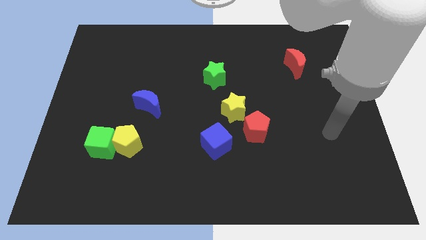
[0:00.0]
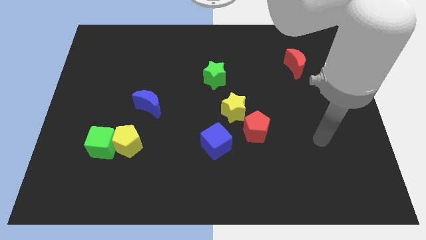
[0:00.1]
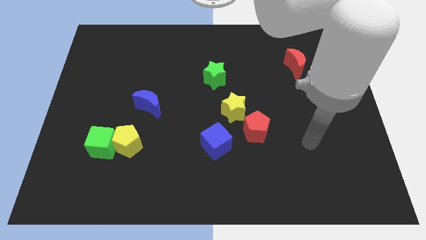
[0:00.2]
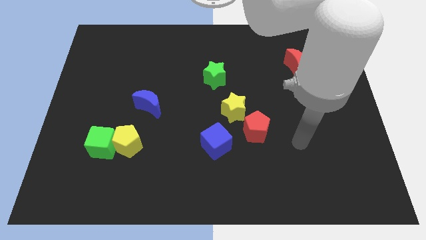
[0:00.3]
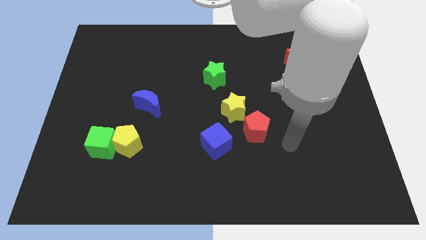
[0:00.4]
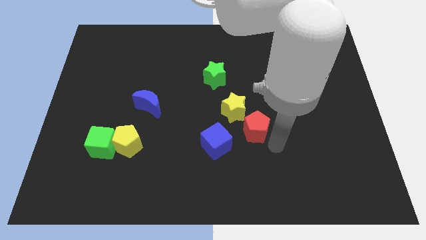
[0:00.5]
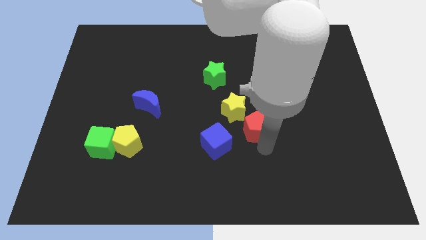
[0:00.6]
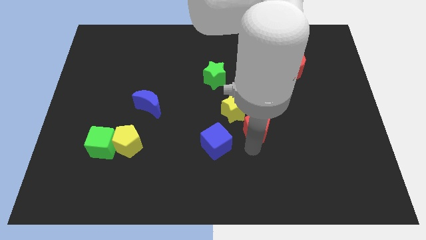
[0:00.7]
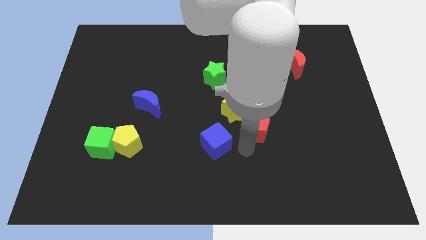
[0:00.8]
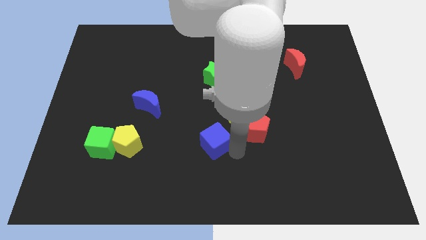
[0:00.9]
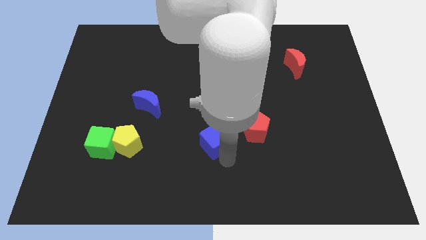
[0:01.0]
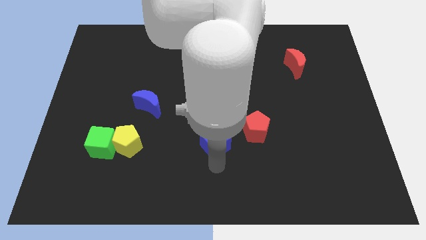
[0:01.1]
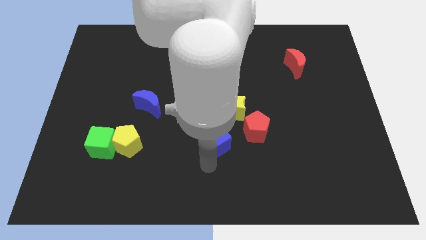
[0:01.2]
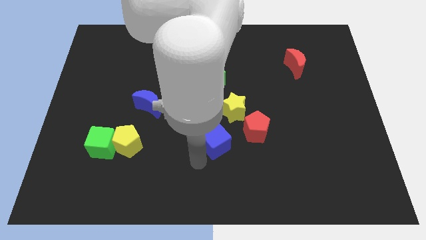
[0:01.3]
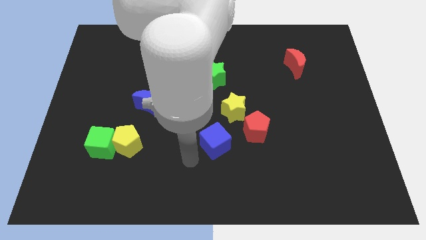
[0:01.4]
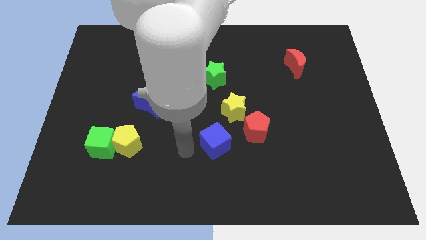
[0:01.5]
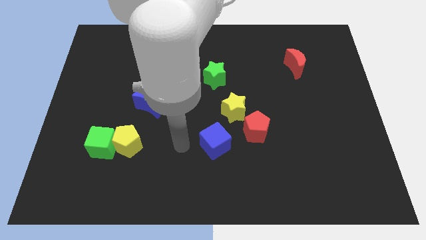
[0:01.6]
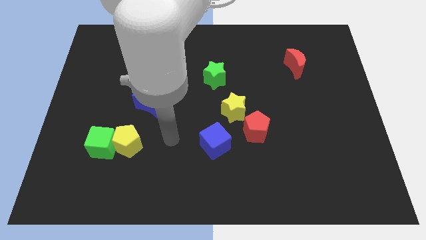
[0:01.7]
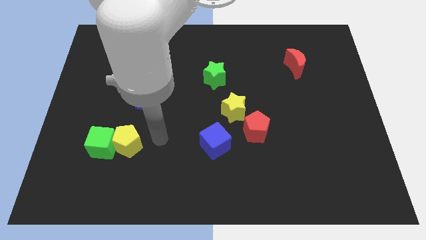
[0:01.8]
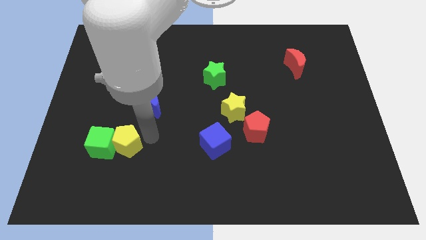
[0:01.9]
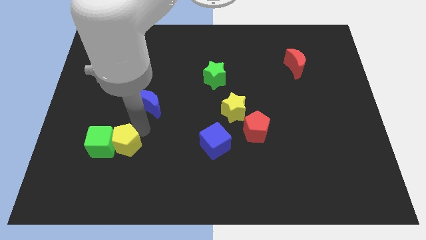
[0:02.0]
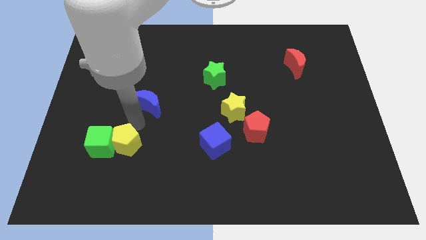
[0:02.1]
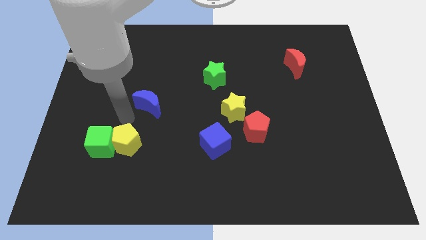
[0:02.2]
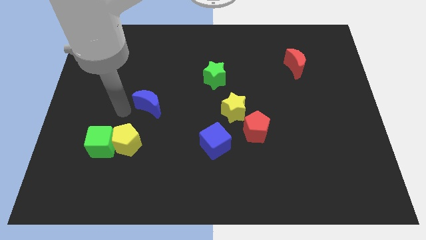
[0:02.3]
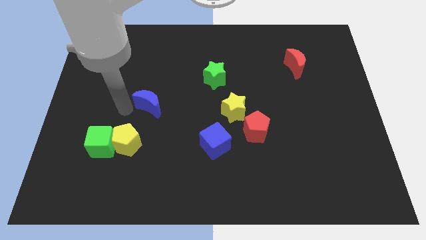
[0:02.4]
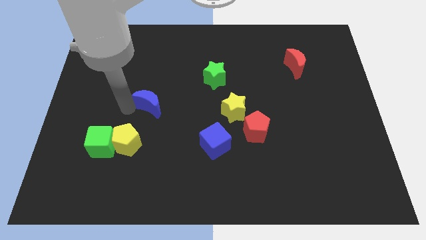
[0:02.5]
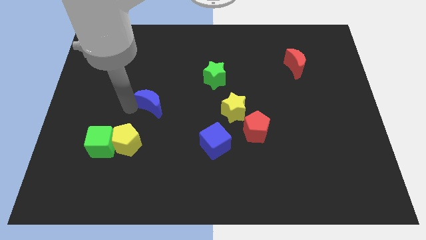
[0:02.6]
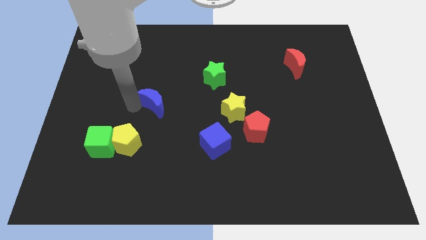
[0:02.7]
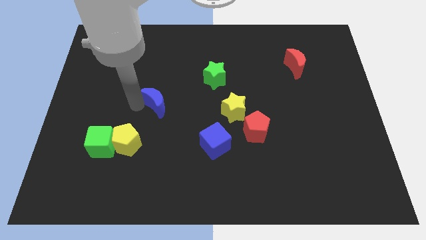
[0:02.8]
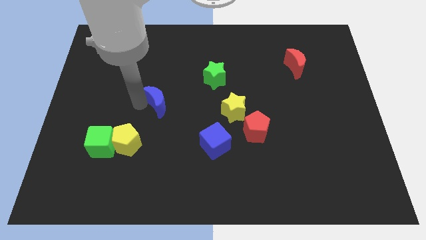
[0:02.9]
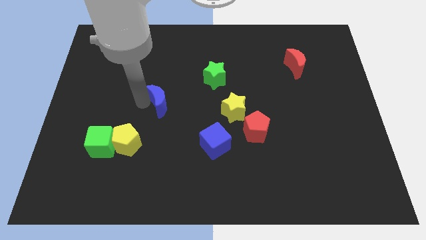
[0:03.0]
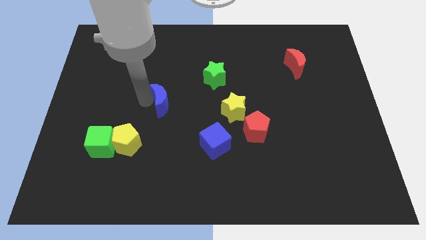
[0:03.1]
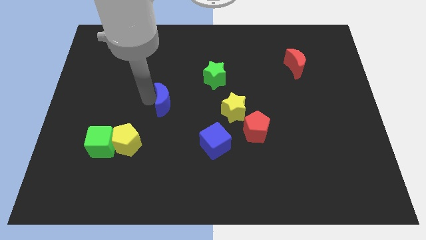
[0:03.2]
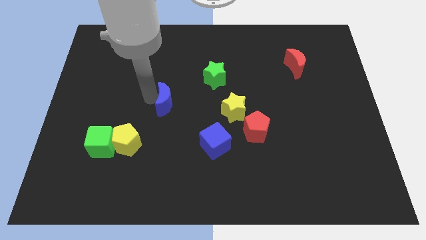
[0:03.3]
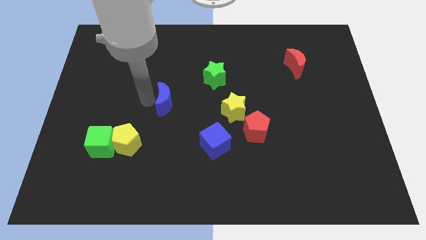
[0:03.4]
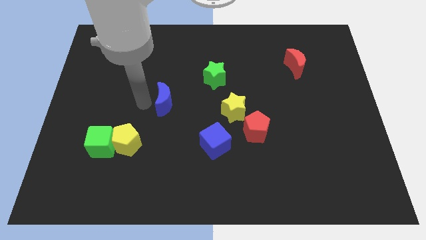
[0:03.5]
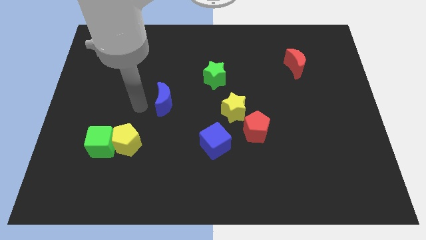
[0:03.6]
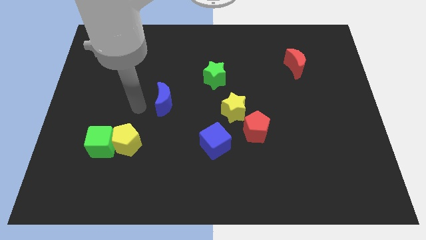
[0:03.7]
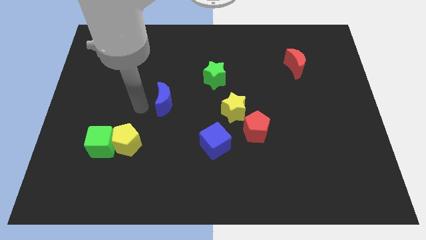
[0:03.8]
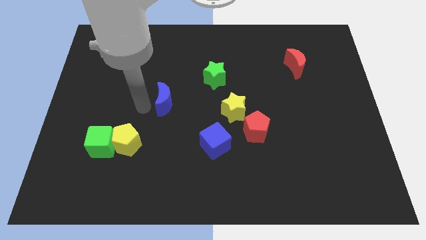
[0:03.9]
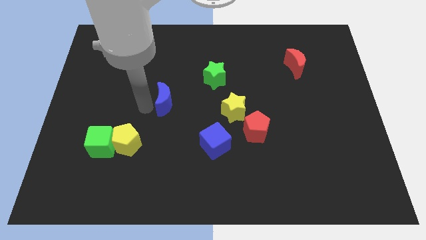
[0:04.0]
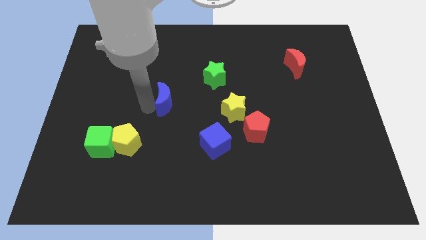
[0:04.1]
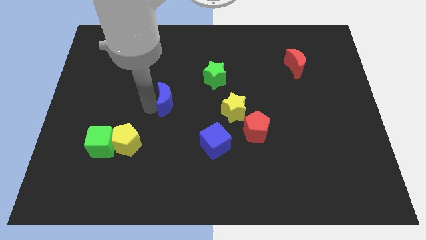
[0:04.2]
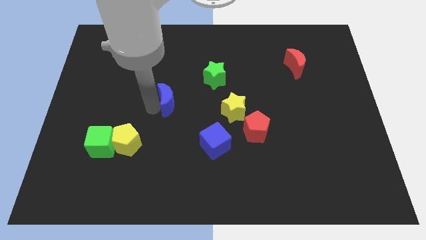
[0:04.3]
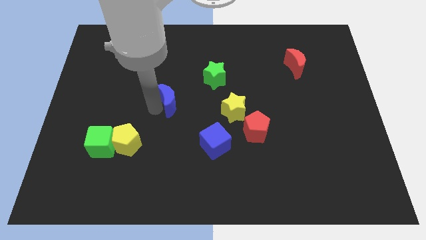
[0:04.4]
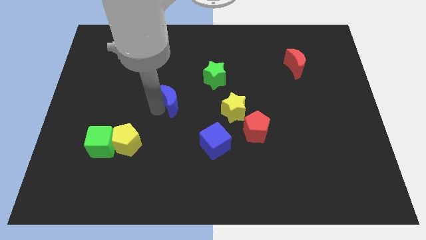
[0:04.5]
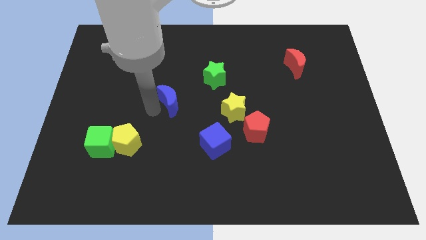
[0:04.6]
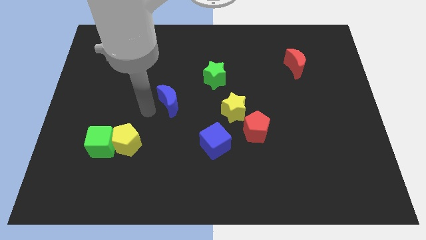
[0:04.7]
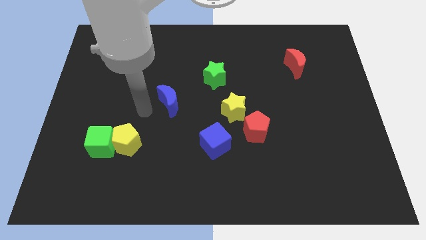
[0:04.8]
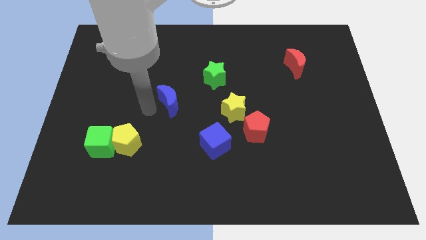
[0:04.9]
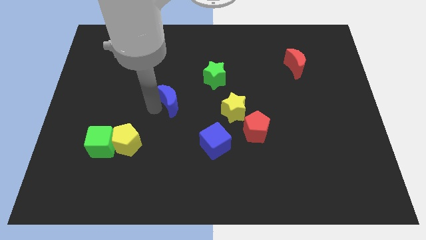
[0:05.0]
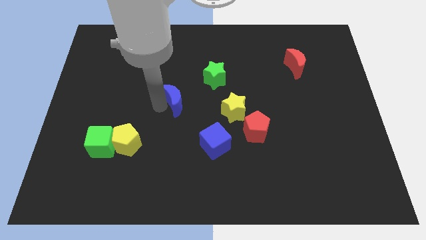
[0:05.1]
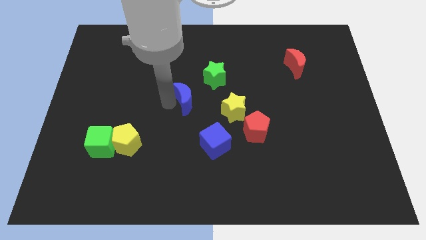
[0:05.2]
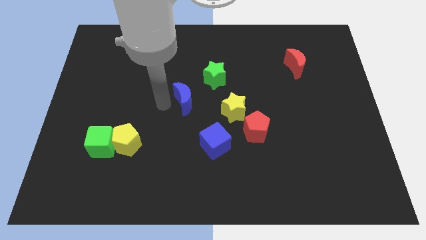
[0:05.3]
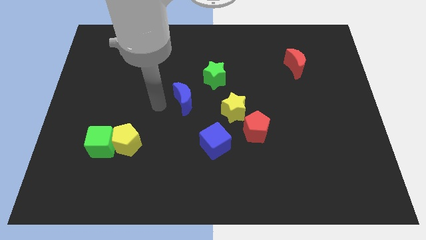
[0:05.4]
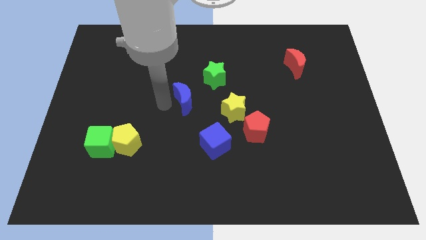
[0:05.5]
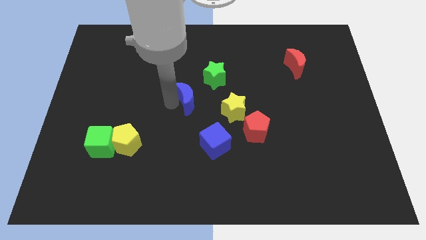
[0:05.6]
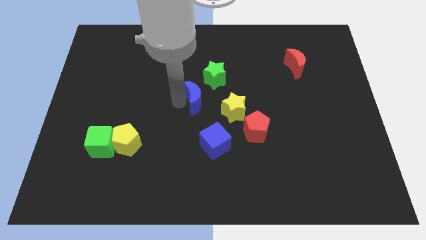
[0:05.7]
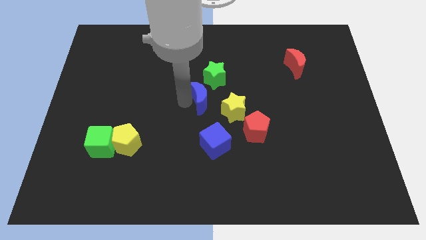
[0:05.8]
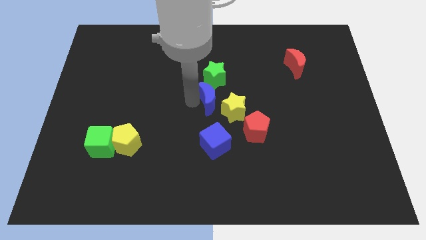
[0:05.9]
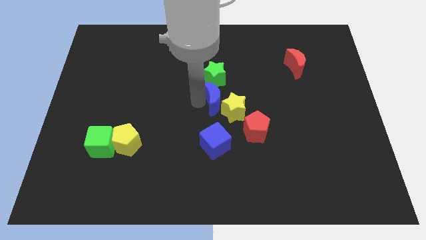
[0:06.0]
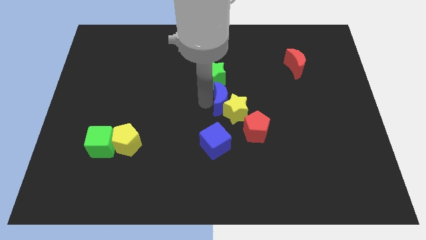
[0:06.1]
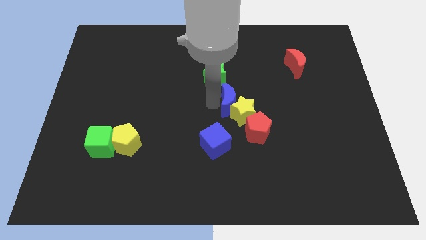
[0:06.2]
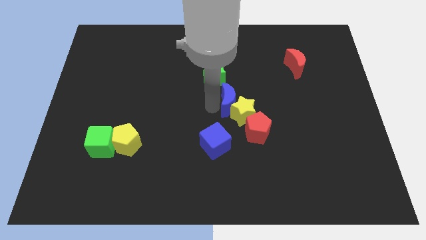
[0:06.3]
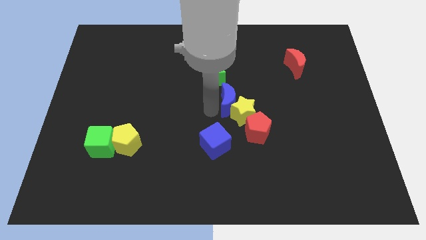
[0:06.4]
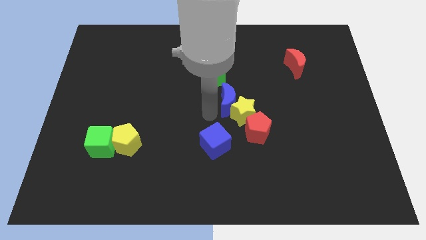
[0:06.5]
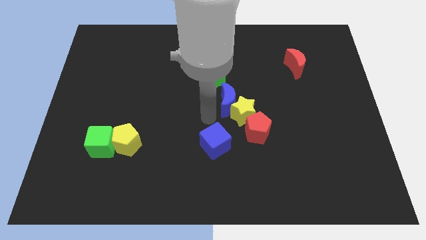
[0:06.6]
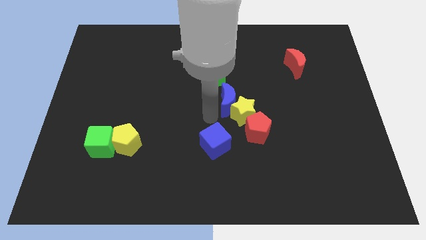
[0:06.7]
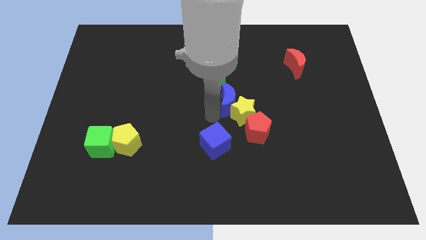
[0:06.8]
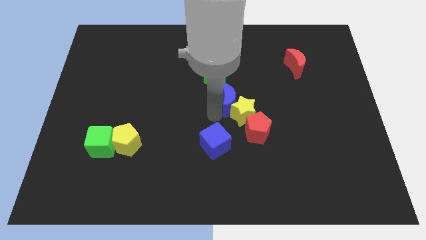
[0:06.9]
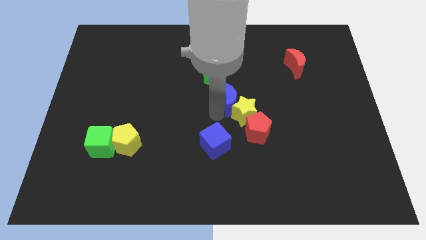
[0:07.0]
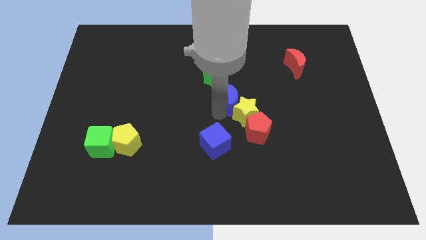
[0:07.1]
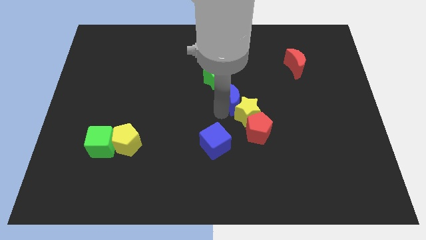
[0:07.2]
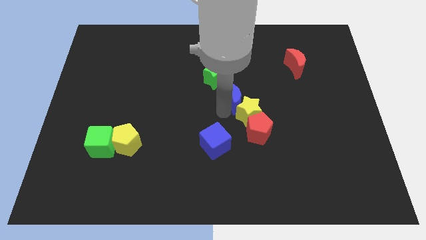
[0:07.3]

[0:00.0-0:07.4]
move the blue moon to the right

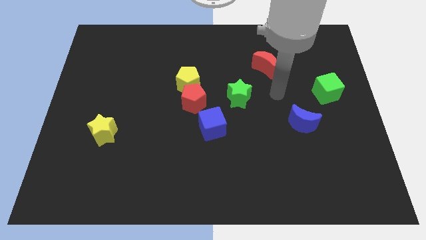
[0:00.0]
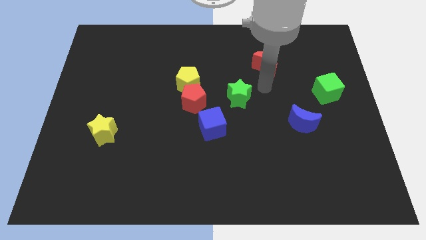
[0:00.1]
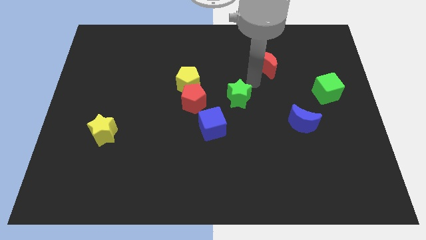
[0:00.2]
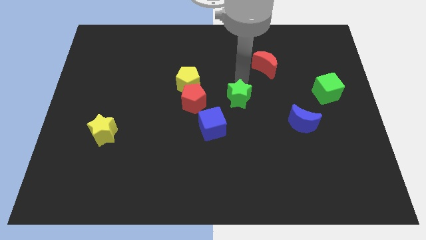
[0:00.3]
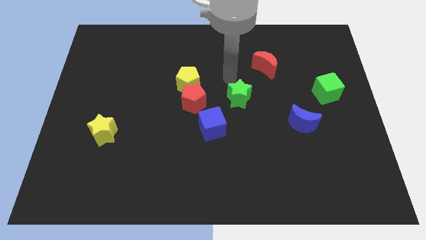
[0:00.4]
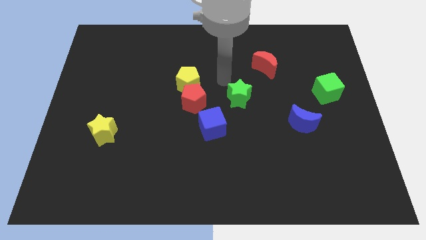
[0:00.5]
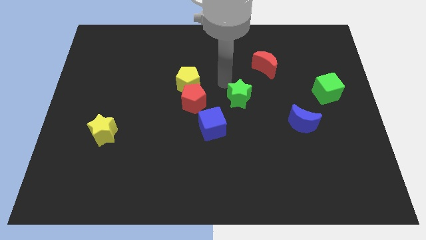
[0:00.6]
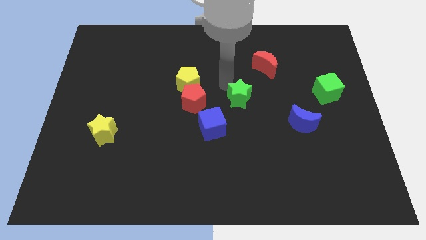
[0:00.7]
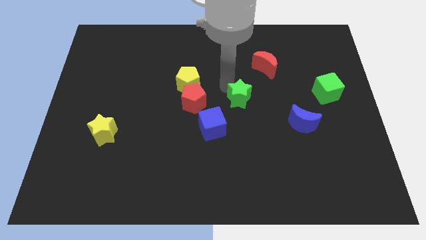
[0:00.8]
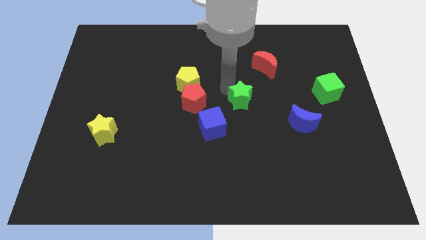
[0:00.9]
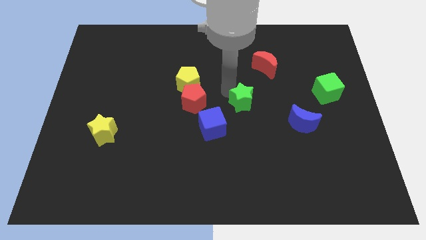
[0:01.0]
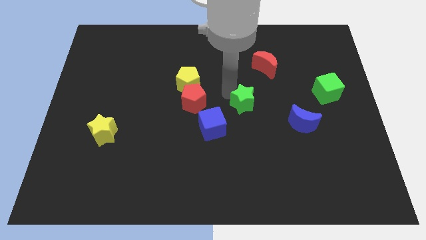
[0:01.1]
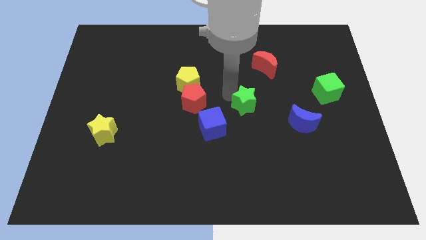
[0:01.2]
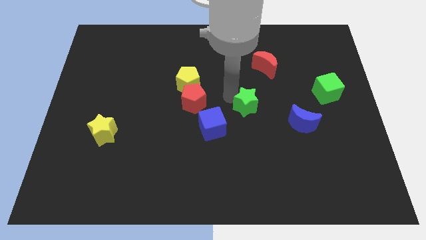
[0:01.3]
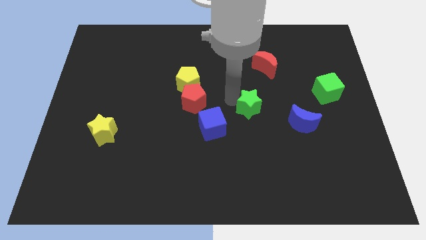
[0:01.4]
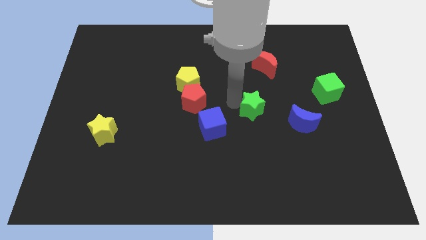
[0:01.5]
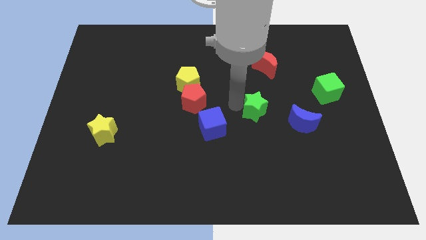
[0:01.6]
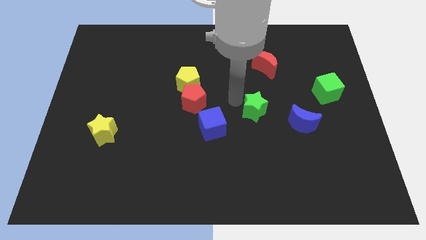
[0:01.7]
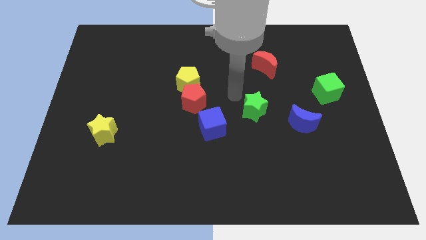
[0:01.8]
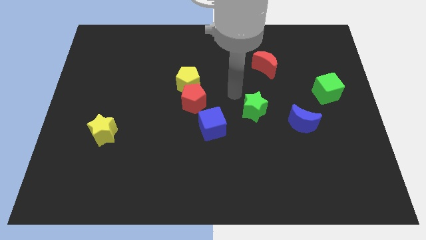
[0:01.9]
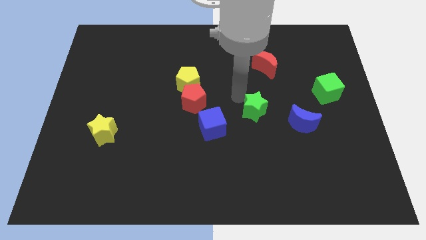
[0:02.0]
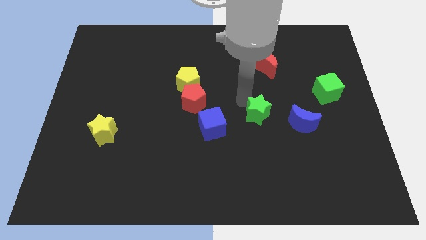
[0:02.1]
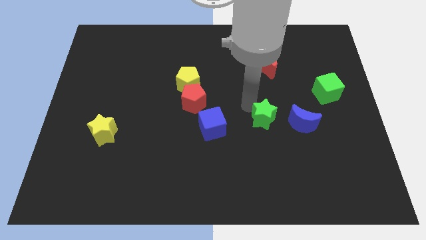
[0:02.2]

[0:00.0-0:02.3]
slightly move the green star down and then right
